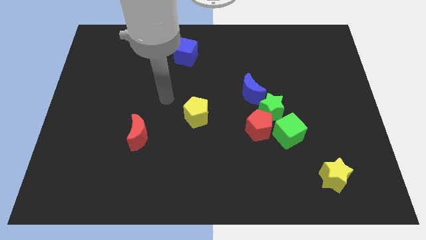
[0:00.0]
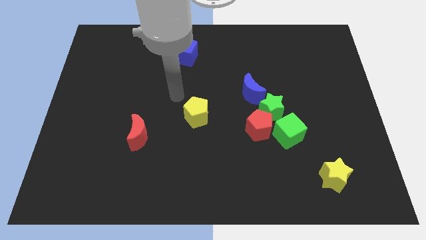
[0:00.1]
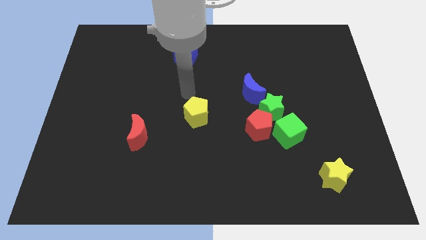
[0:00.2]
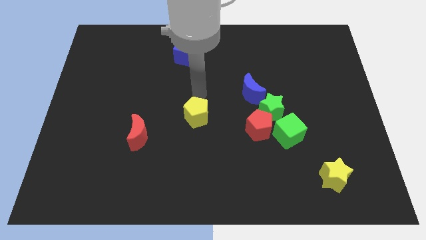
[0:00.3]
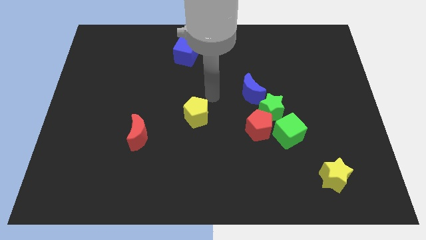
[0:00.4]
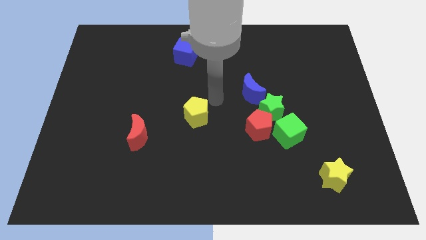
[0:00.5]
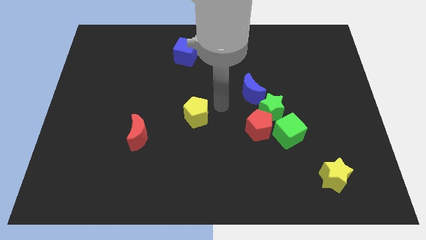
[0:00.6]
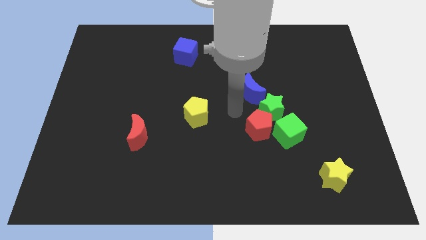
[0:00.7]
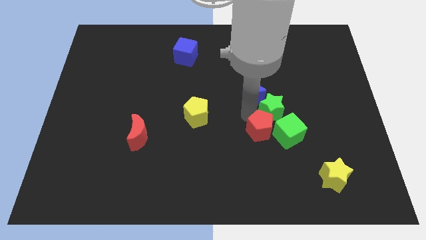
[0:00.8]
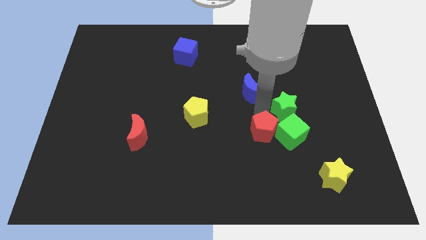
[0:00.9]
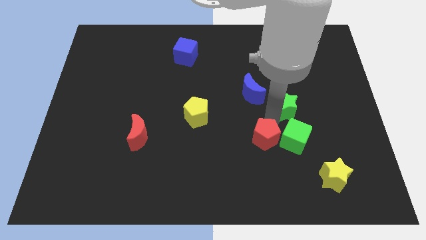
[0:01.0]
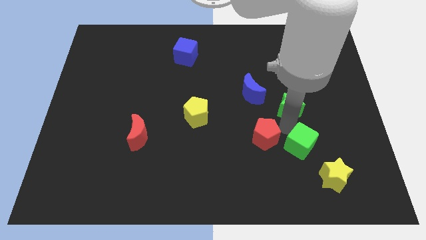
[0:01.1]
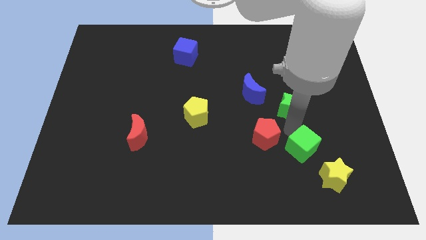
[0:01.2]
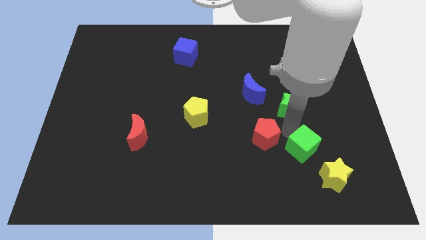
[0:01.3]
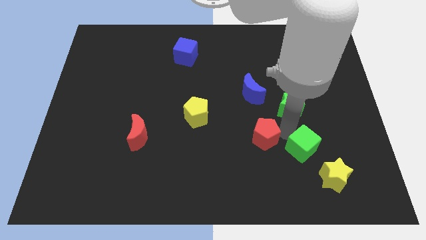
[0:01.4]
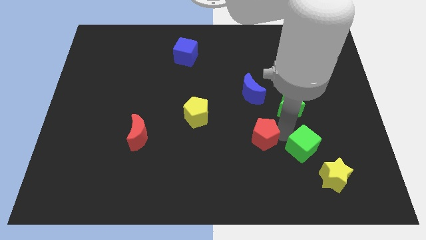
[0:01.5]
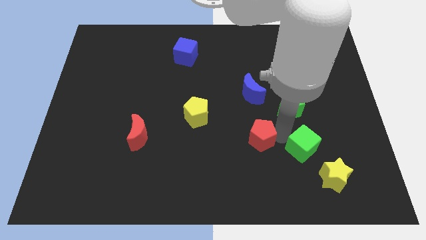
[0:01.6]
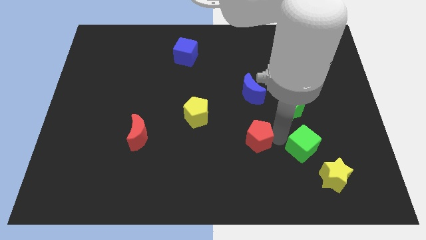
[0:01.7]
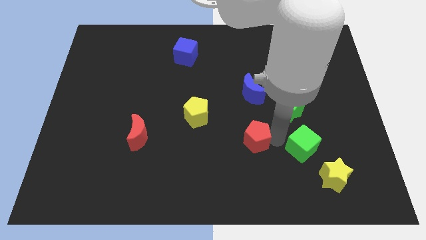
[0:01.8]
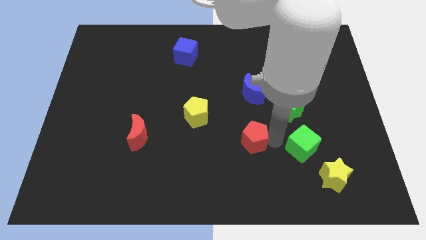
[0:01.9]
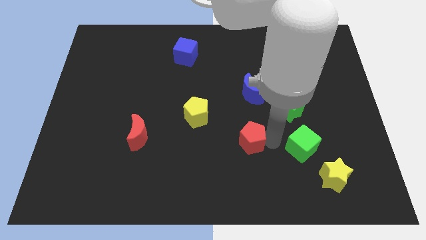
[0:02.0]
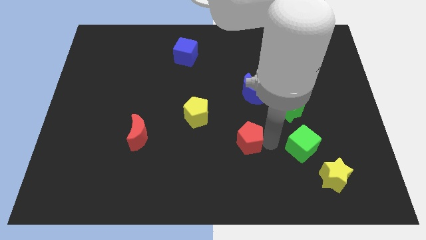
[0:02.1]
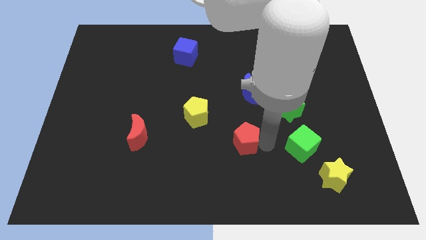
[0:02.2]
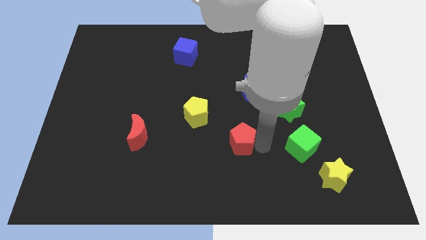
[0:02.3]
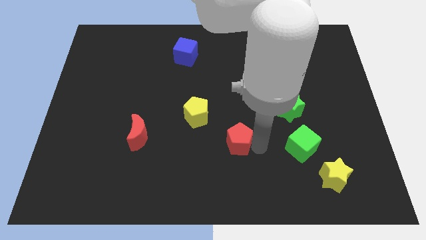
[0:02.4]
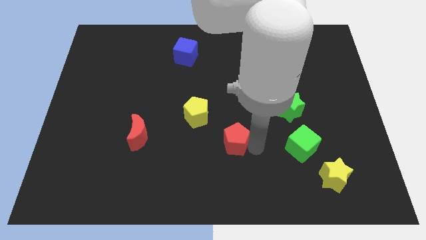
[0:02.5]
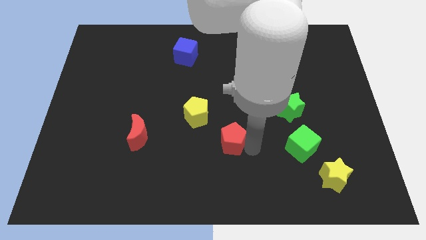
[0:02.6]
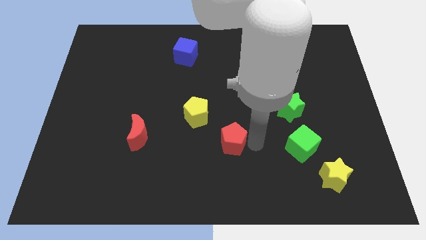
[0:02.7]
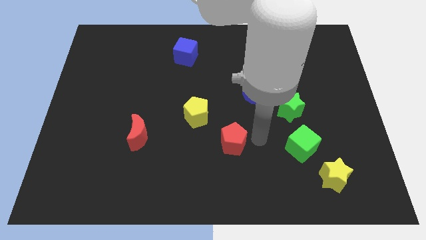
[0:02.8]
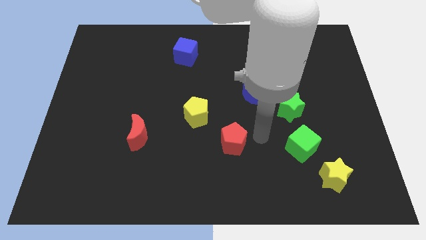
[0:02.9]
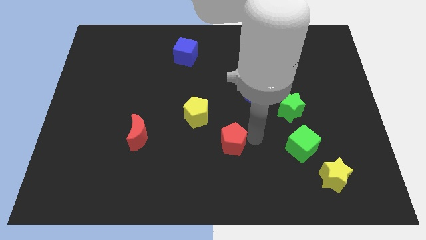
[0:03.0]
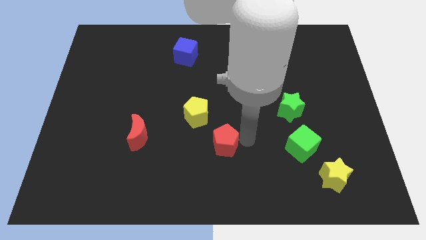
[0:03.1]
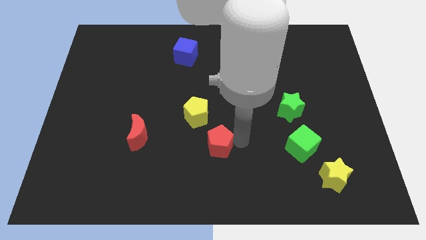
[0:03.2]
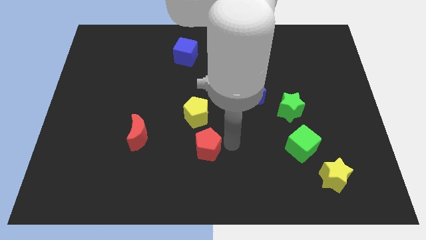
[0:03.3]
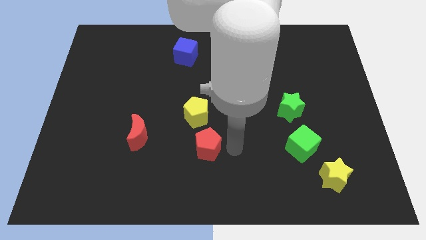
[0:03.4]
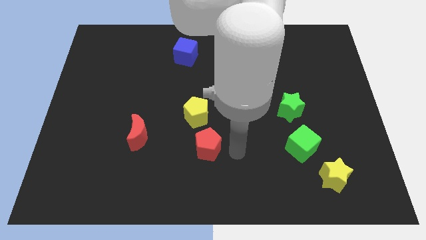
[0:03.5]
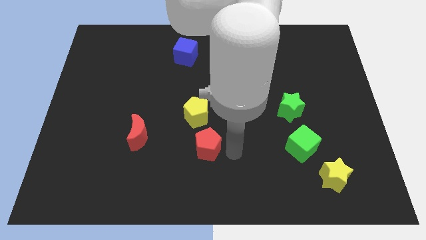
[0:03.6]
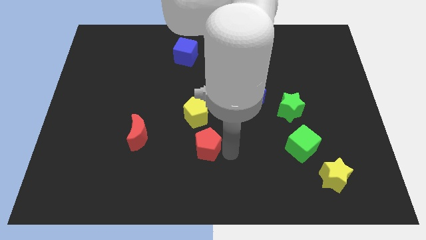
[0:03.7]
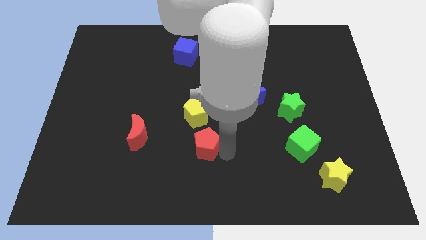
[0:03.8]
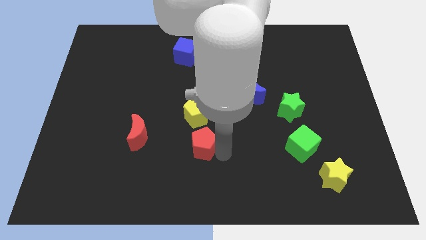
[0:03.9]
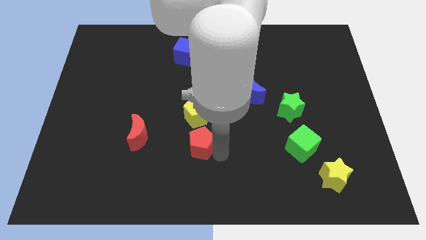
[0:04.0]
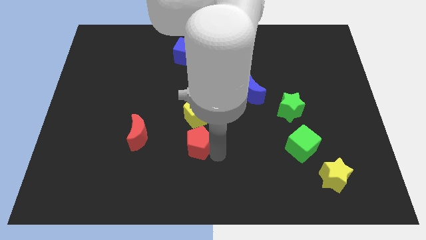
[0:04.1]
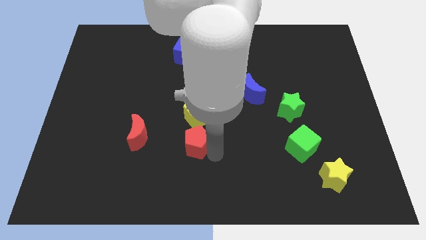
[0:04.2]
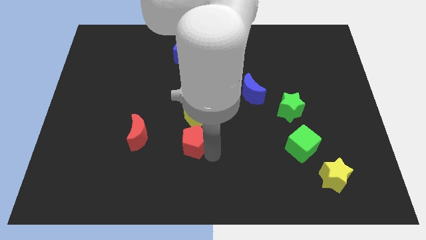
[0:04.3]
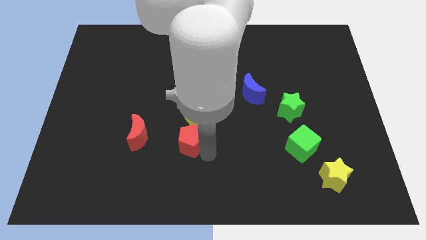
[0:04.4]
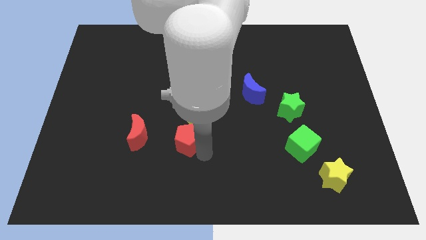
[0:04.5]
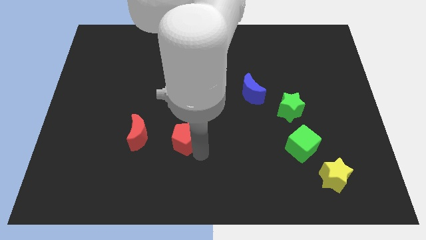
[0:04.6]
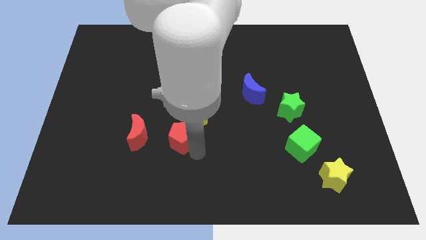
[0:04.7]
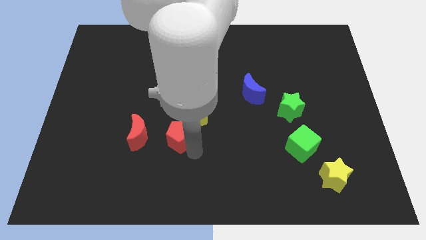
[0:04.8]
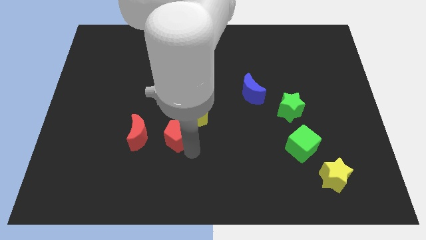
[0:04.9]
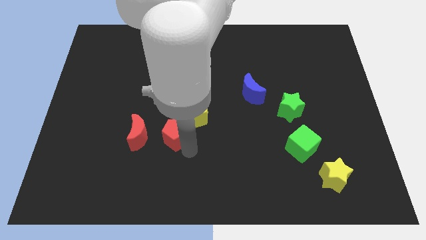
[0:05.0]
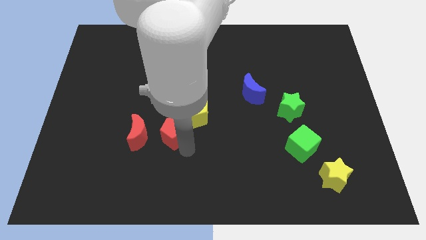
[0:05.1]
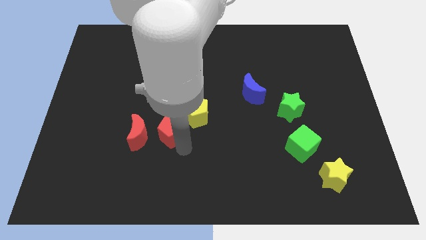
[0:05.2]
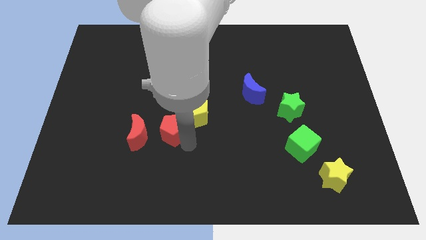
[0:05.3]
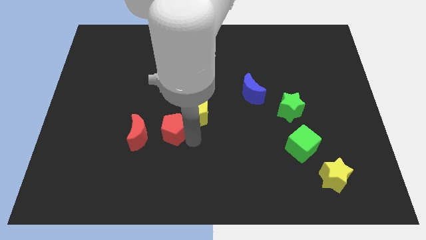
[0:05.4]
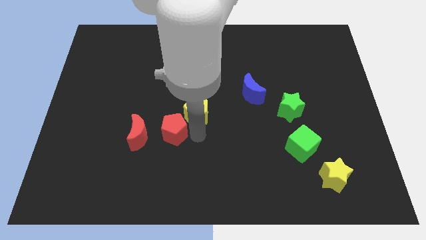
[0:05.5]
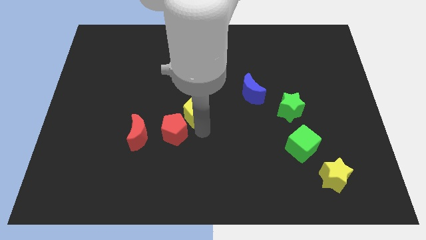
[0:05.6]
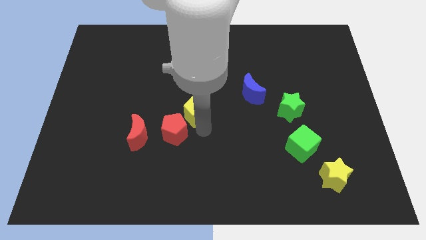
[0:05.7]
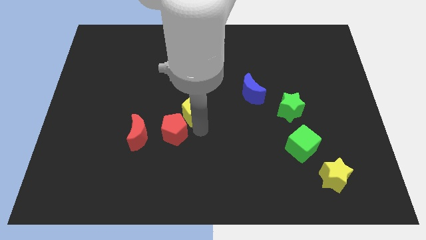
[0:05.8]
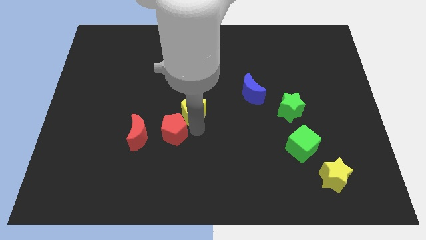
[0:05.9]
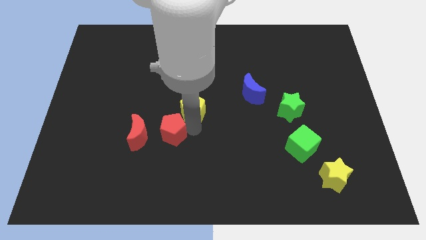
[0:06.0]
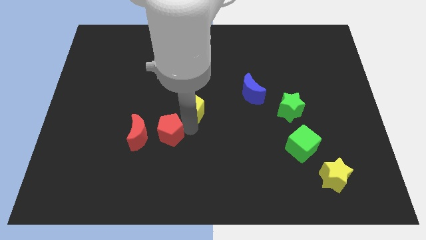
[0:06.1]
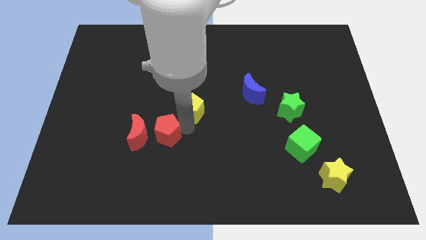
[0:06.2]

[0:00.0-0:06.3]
put the red pentagon next to the red moon

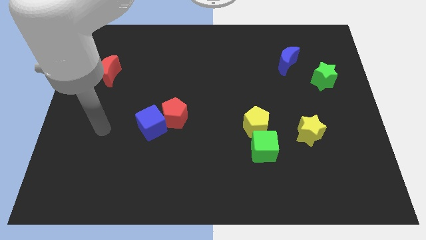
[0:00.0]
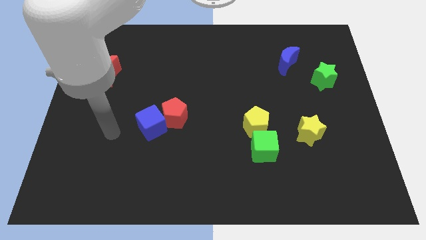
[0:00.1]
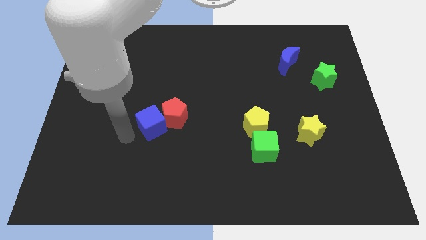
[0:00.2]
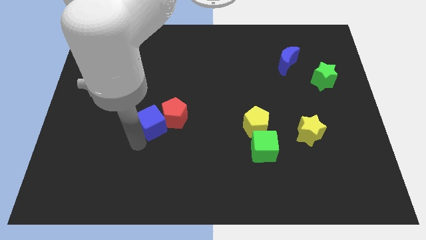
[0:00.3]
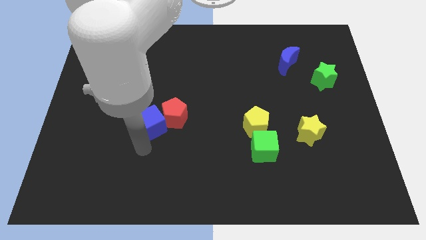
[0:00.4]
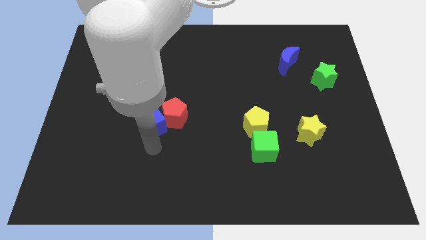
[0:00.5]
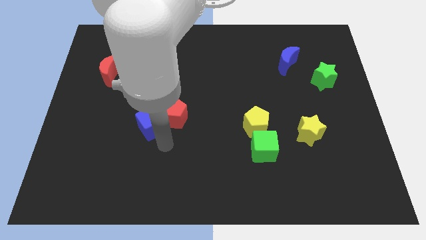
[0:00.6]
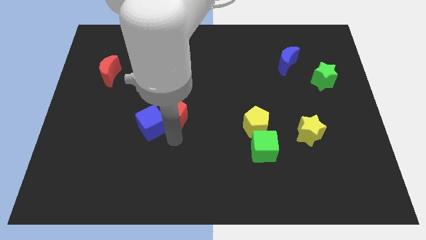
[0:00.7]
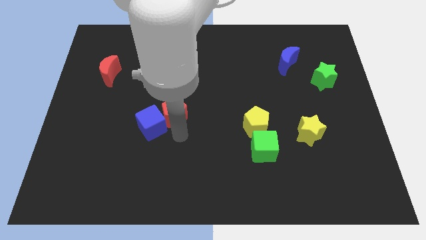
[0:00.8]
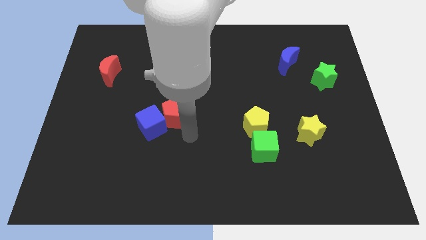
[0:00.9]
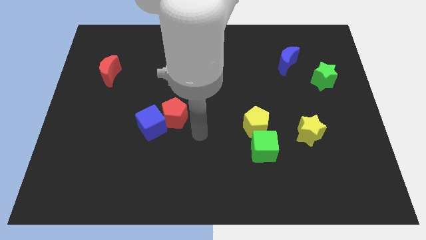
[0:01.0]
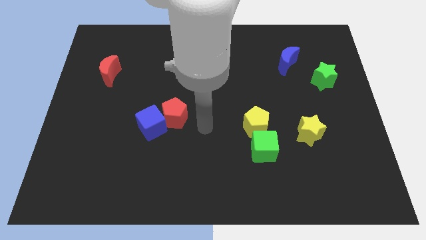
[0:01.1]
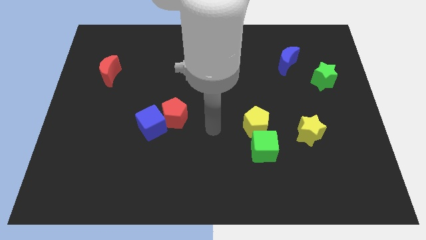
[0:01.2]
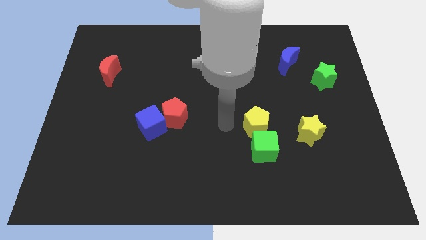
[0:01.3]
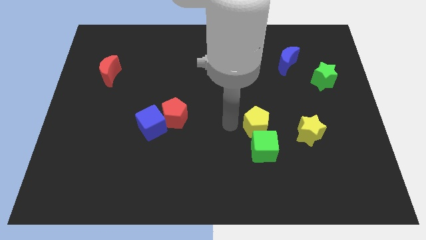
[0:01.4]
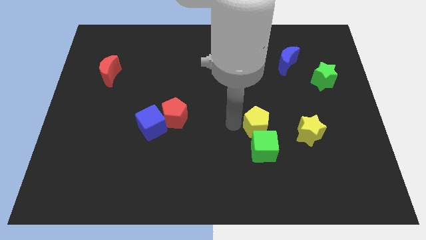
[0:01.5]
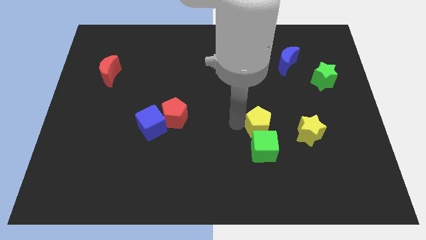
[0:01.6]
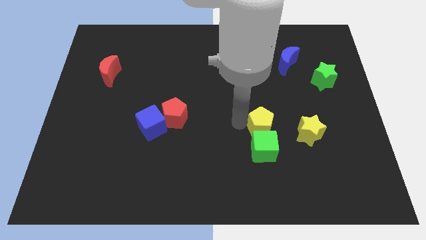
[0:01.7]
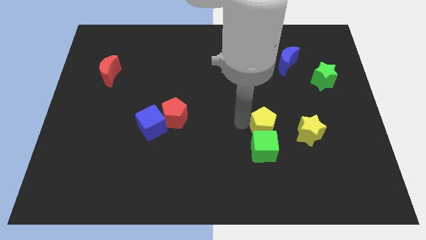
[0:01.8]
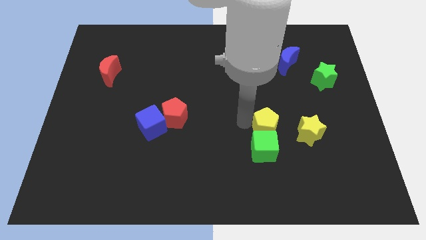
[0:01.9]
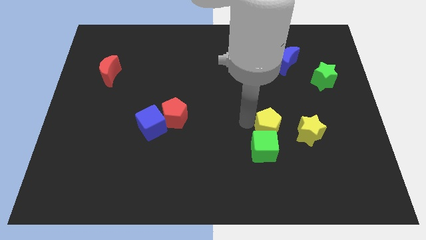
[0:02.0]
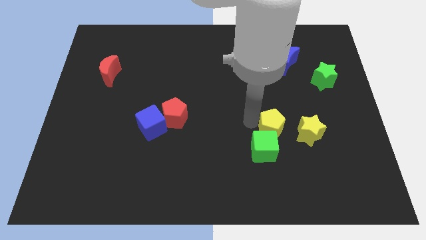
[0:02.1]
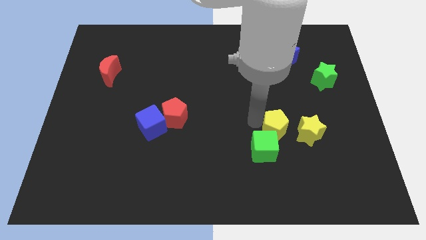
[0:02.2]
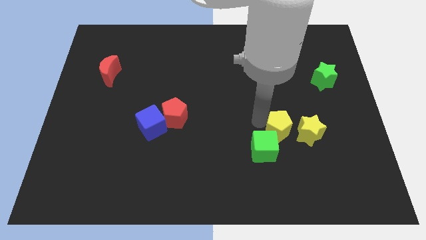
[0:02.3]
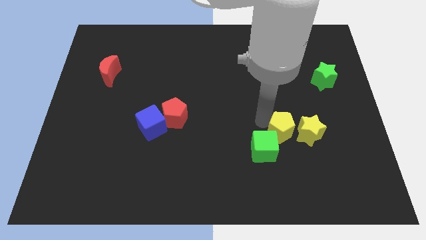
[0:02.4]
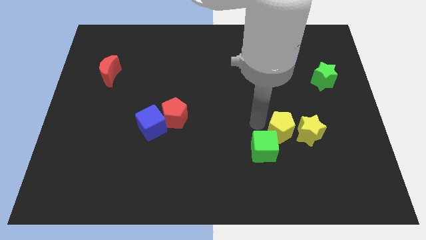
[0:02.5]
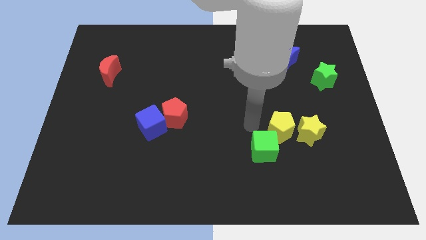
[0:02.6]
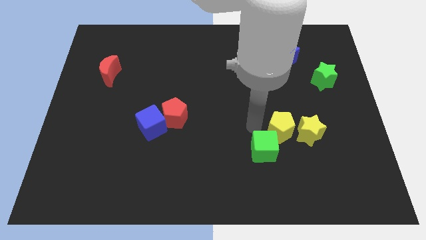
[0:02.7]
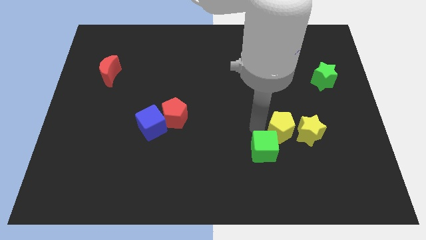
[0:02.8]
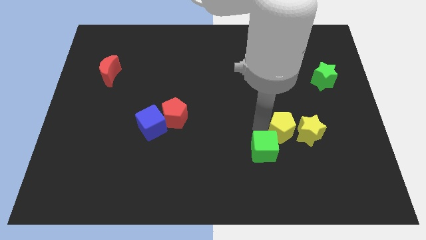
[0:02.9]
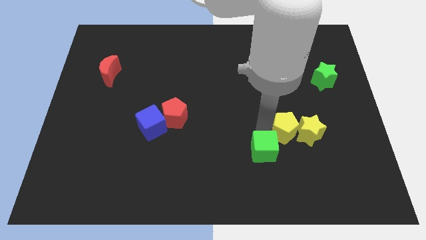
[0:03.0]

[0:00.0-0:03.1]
push the yellow pentagon to the yellow star
